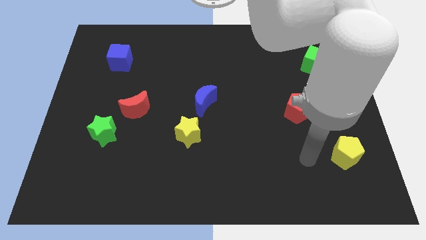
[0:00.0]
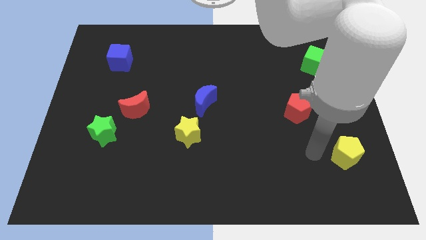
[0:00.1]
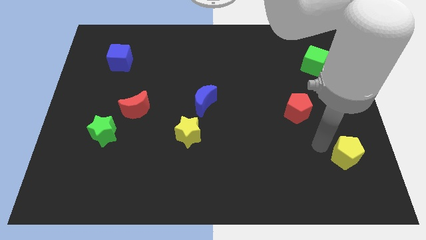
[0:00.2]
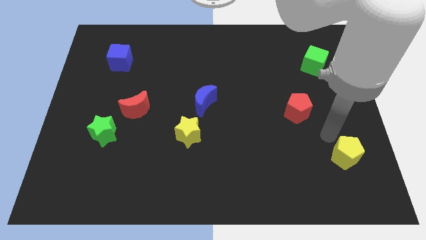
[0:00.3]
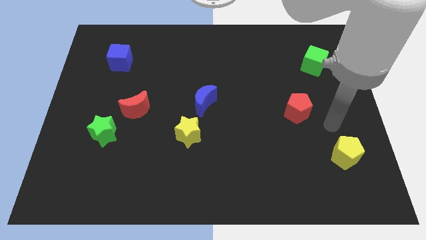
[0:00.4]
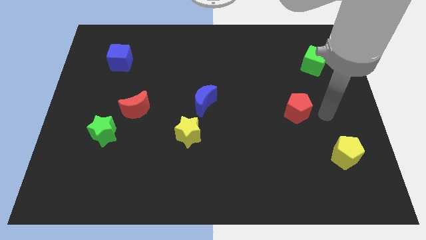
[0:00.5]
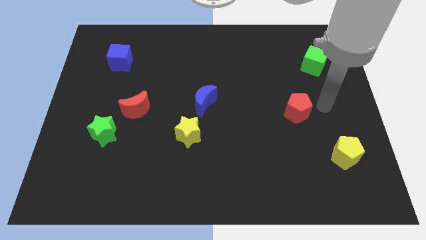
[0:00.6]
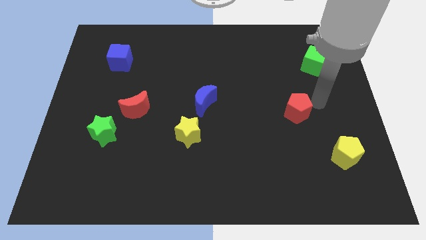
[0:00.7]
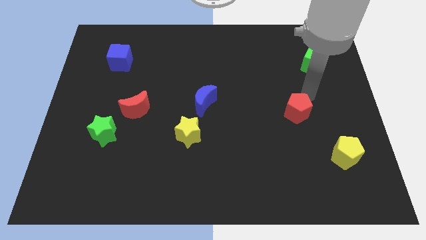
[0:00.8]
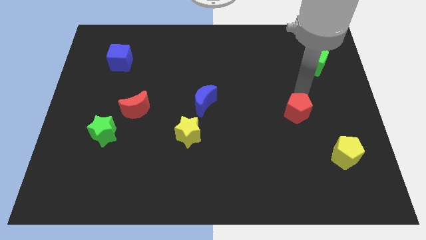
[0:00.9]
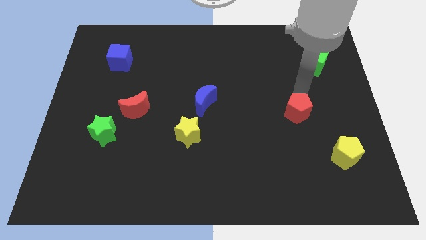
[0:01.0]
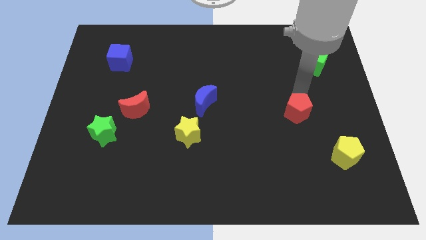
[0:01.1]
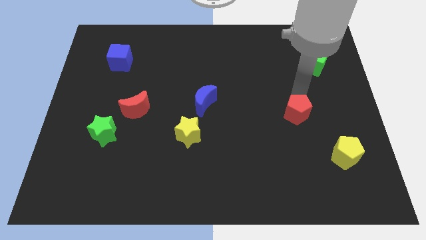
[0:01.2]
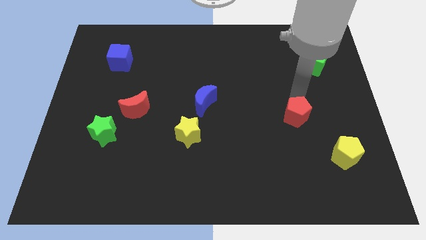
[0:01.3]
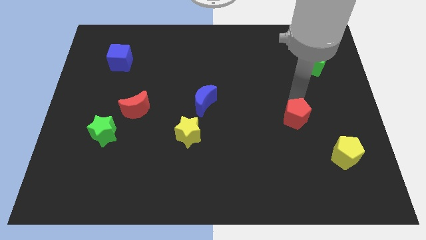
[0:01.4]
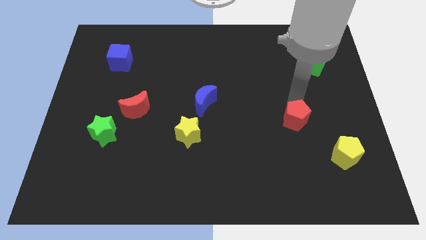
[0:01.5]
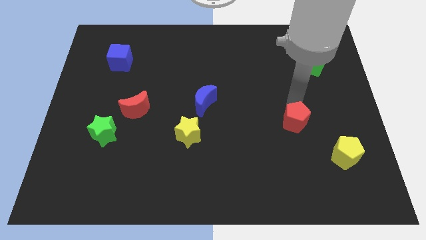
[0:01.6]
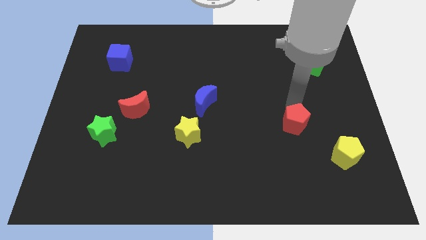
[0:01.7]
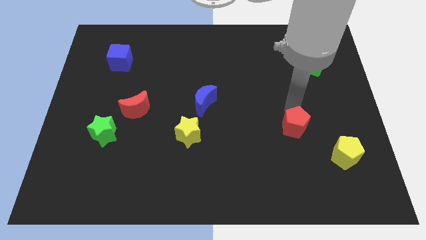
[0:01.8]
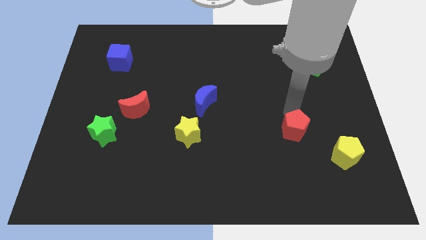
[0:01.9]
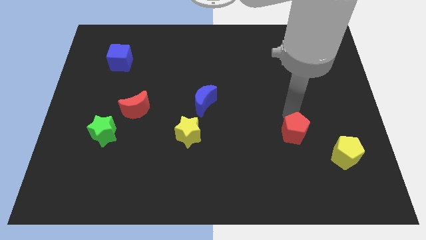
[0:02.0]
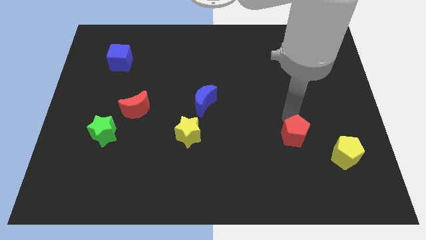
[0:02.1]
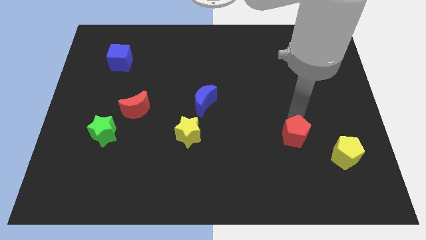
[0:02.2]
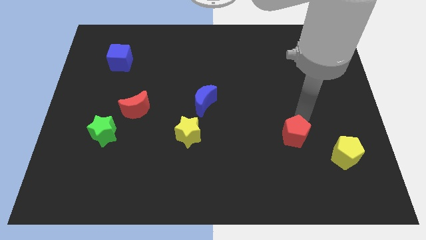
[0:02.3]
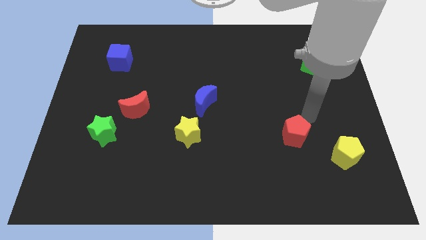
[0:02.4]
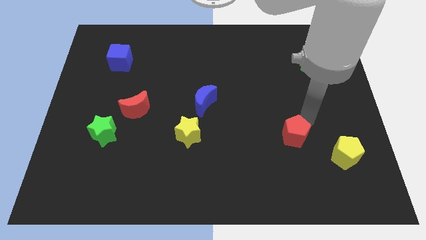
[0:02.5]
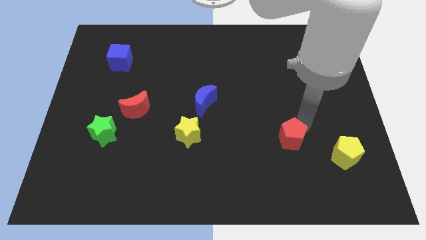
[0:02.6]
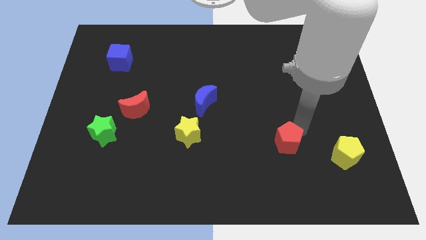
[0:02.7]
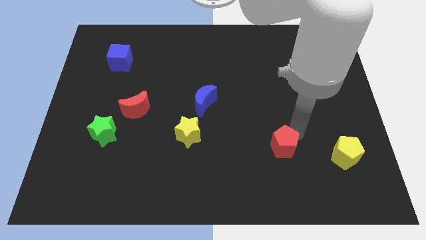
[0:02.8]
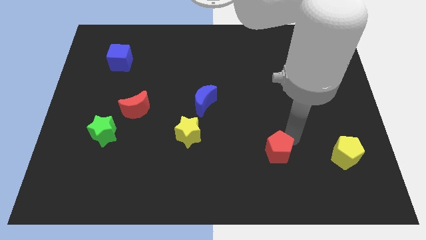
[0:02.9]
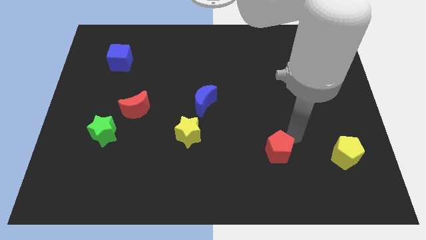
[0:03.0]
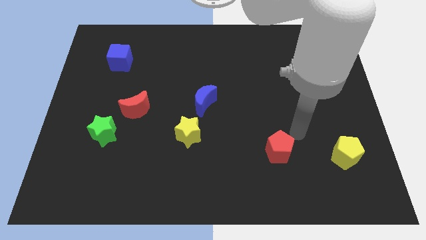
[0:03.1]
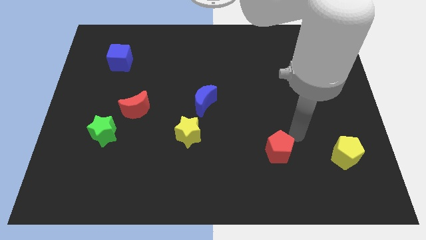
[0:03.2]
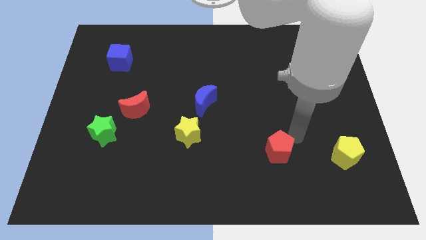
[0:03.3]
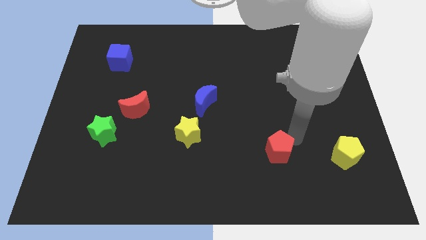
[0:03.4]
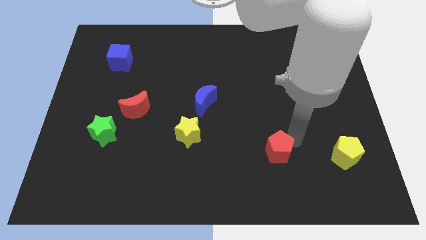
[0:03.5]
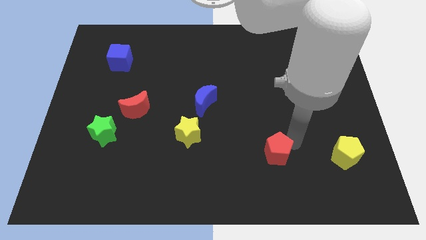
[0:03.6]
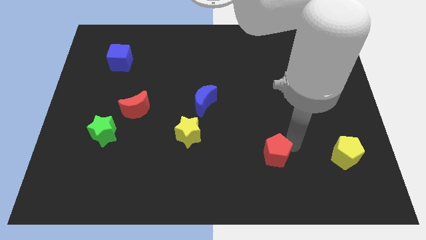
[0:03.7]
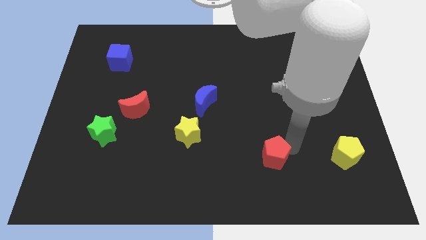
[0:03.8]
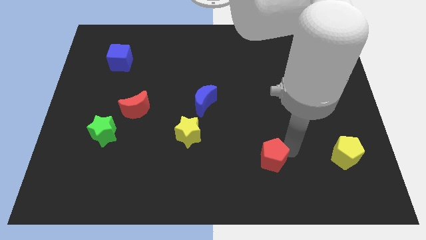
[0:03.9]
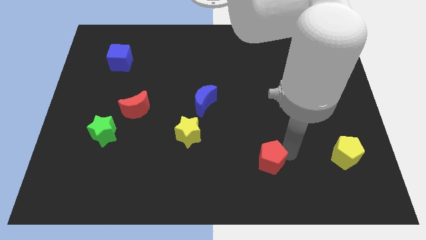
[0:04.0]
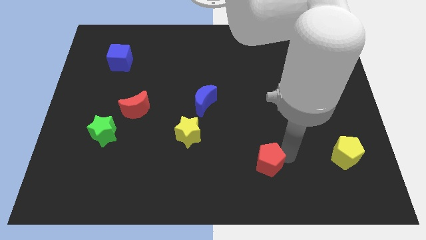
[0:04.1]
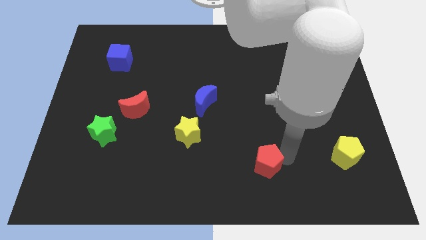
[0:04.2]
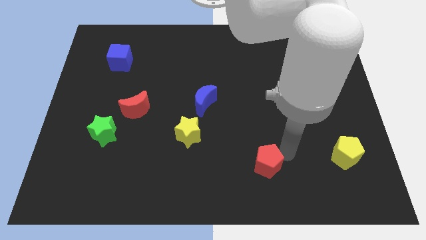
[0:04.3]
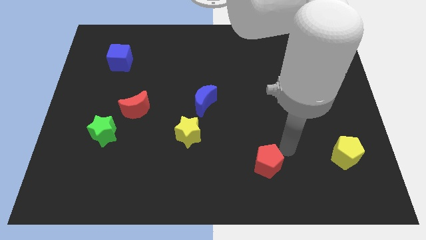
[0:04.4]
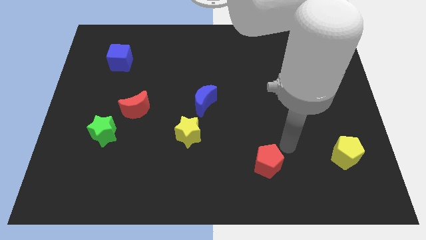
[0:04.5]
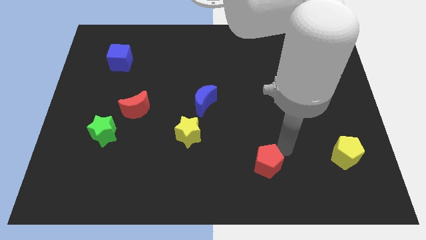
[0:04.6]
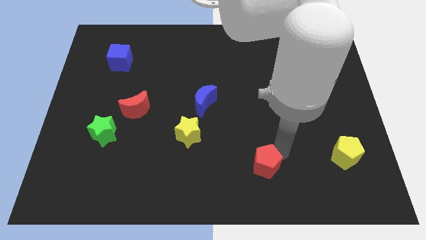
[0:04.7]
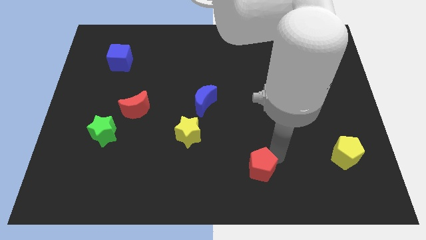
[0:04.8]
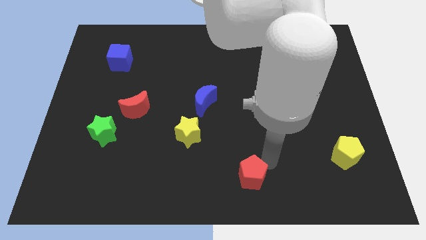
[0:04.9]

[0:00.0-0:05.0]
push the red pentagon to the bottom side

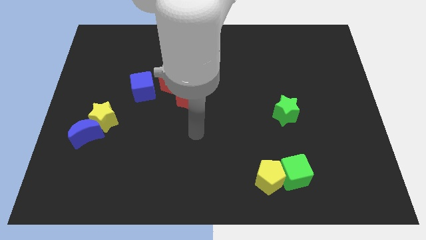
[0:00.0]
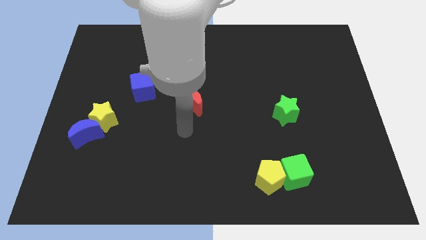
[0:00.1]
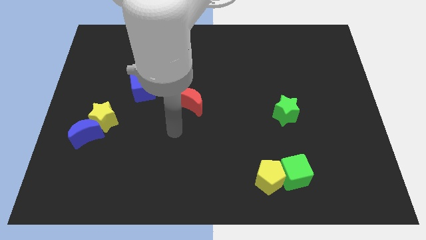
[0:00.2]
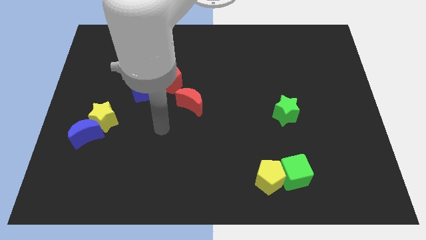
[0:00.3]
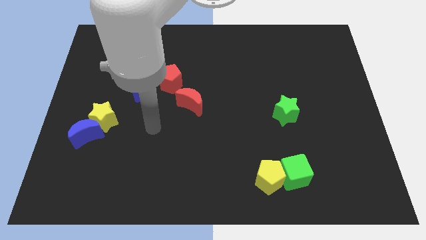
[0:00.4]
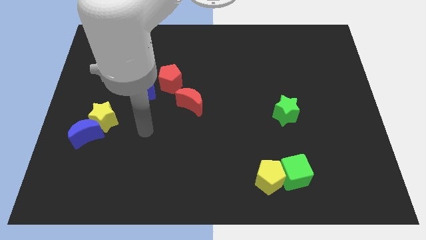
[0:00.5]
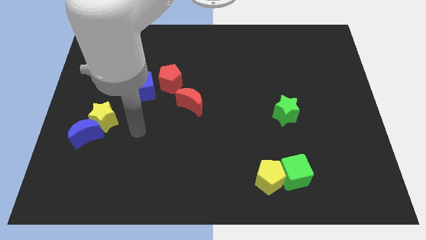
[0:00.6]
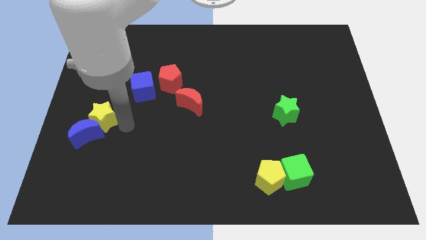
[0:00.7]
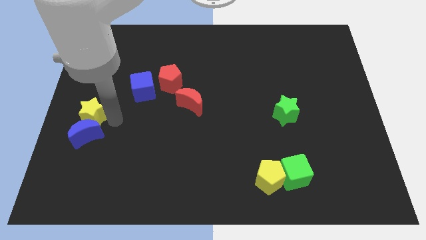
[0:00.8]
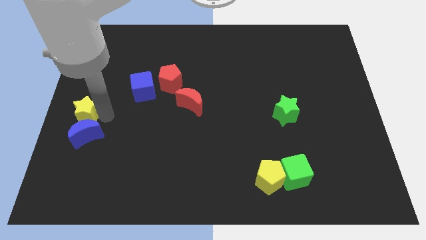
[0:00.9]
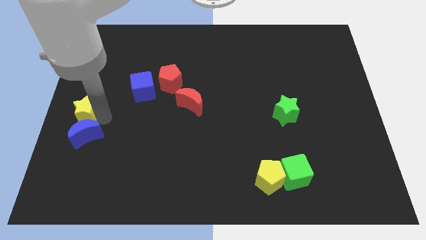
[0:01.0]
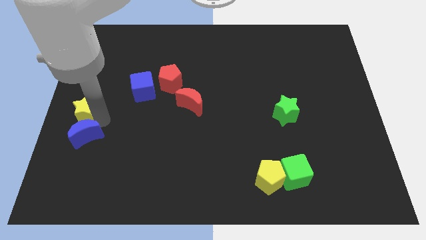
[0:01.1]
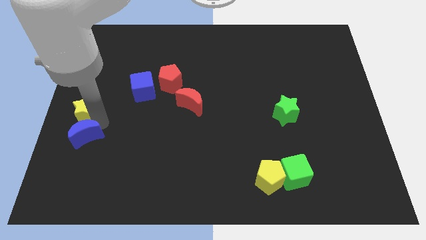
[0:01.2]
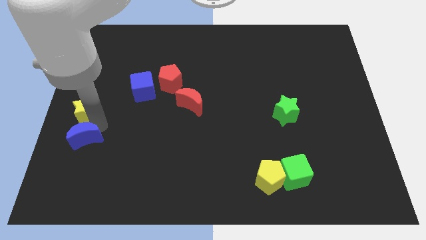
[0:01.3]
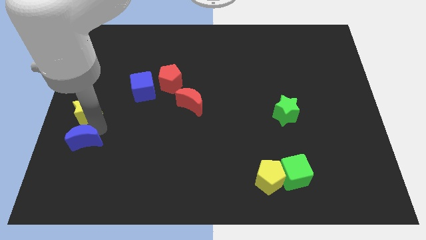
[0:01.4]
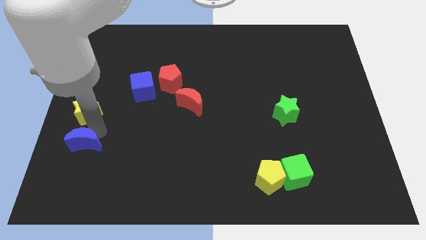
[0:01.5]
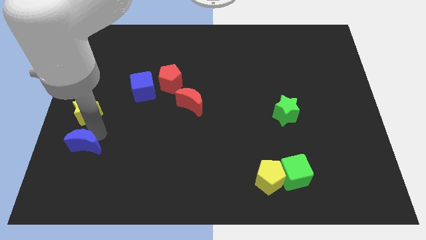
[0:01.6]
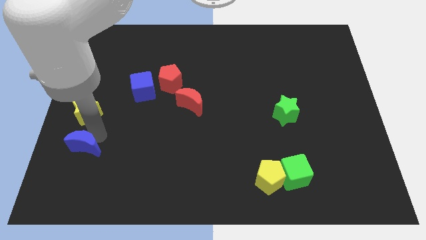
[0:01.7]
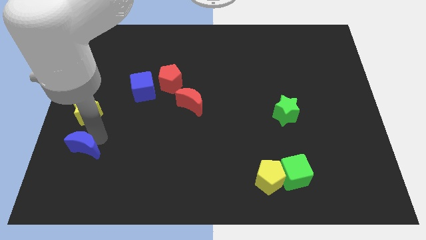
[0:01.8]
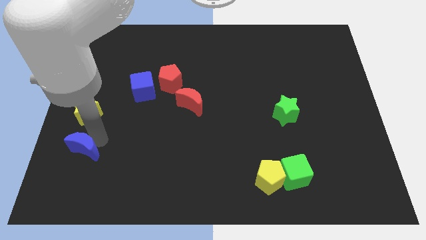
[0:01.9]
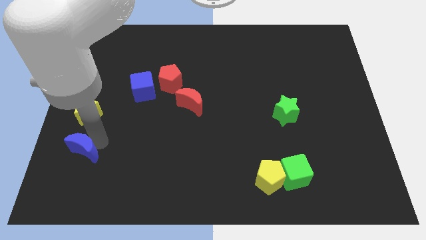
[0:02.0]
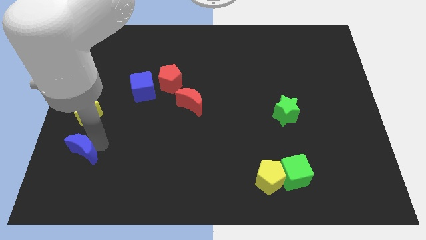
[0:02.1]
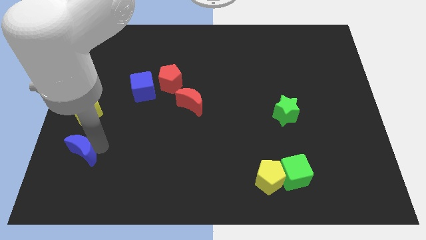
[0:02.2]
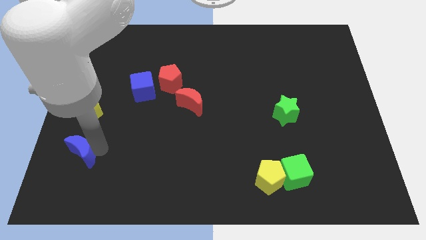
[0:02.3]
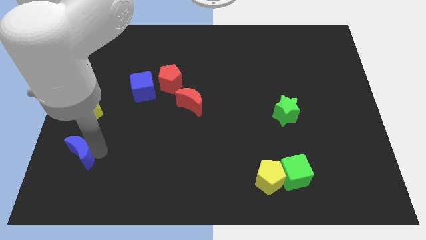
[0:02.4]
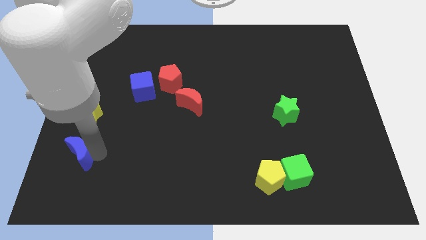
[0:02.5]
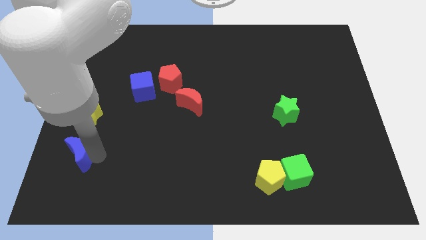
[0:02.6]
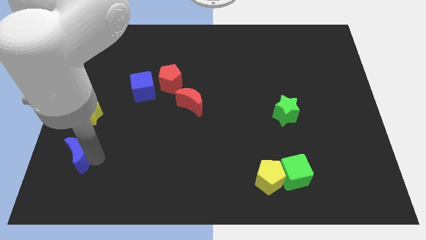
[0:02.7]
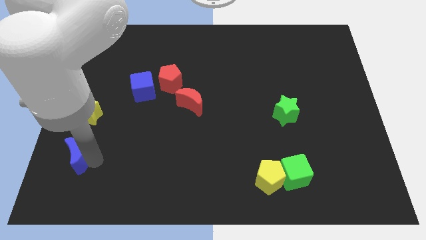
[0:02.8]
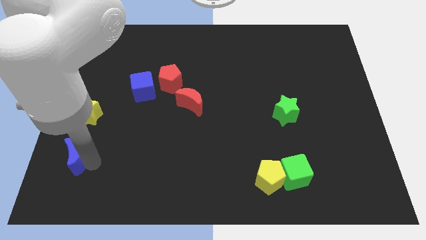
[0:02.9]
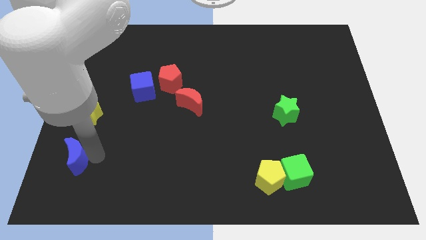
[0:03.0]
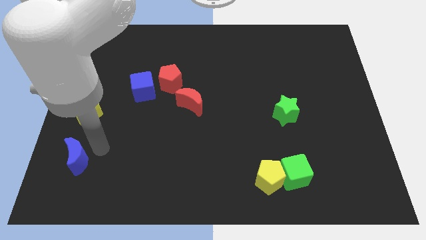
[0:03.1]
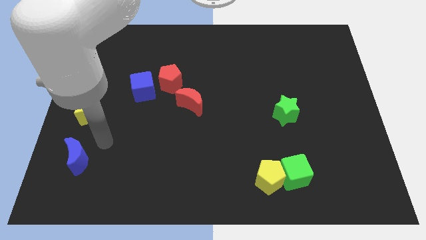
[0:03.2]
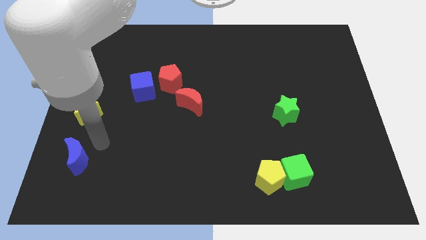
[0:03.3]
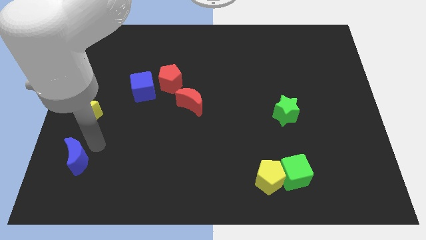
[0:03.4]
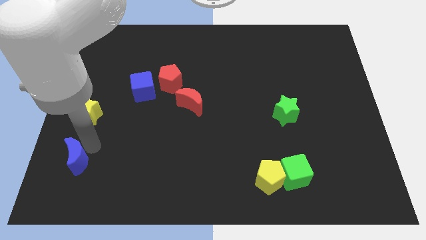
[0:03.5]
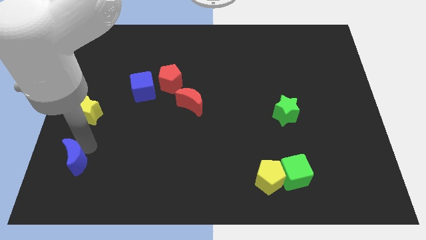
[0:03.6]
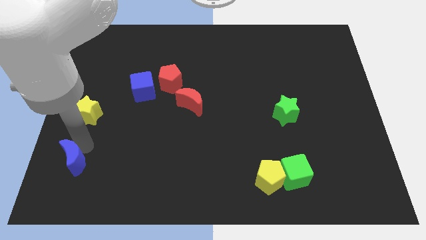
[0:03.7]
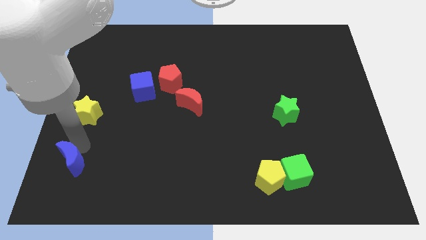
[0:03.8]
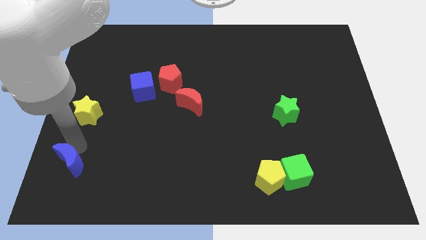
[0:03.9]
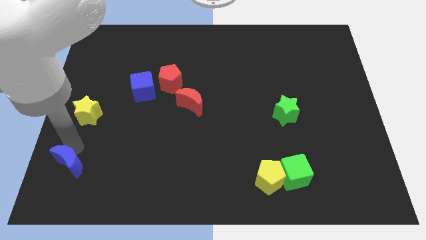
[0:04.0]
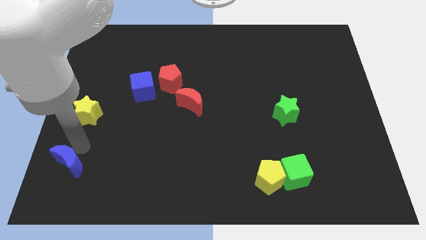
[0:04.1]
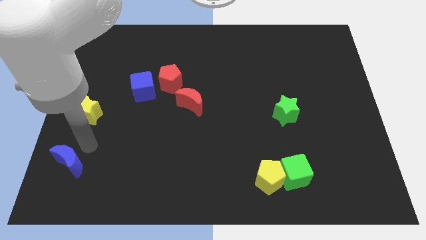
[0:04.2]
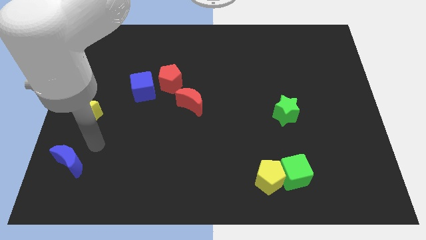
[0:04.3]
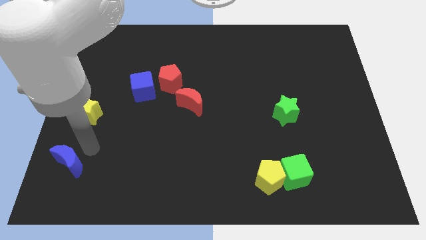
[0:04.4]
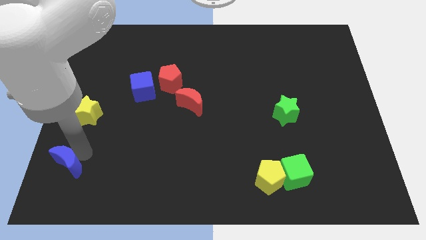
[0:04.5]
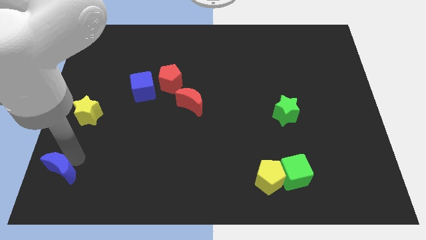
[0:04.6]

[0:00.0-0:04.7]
move the blue moon to the bottom left
